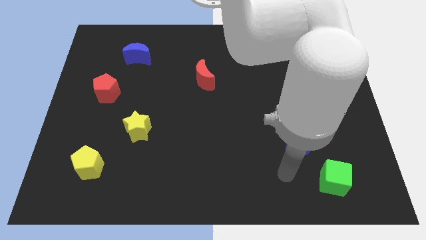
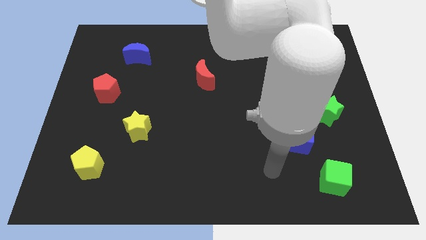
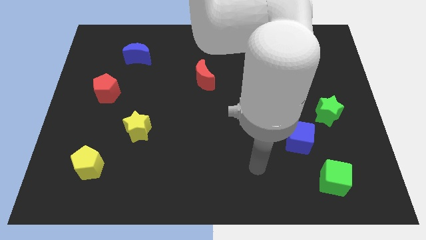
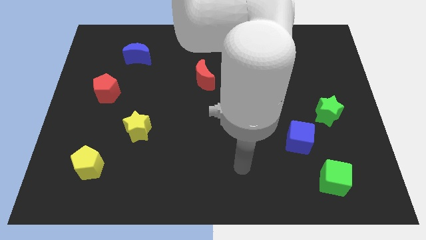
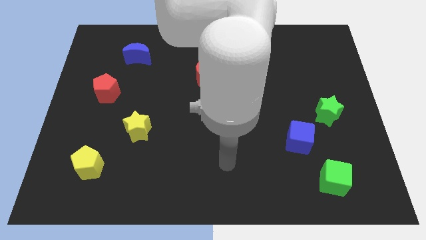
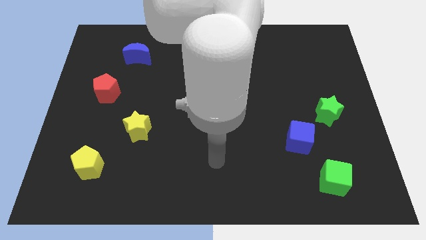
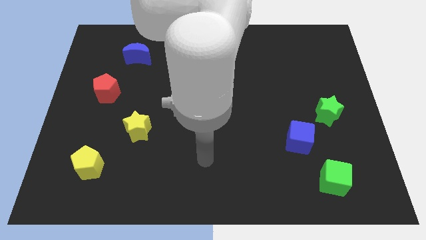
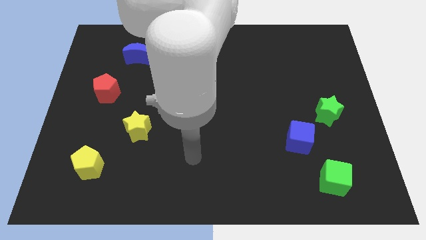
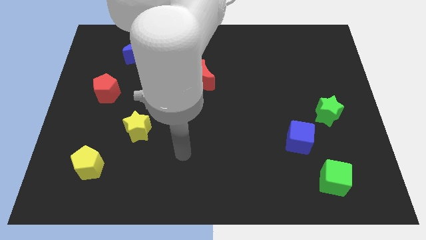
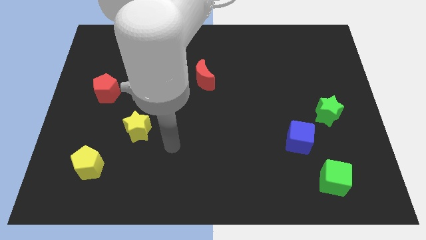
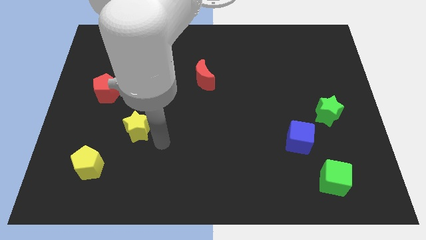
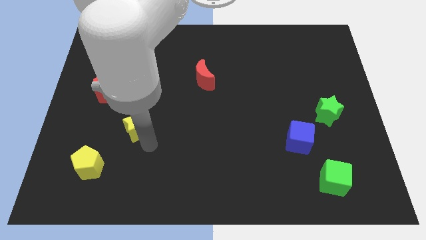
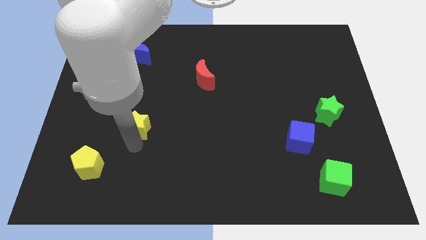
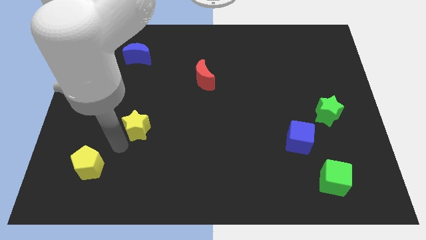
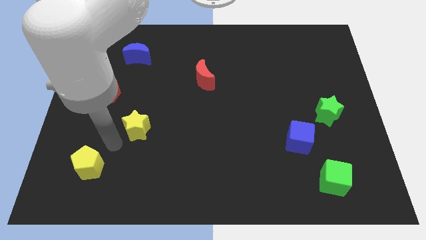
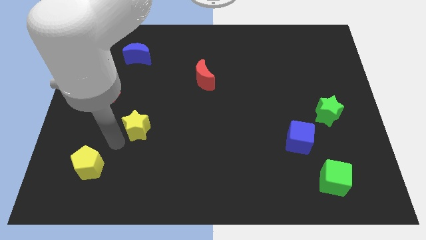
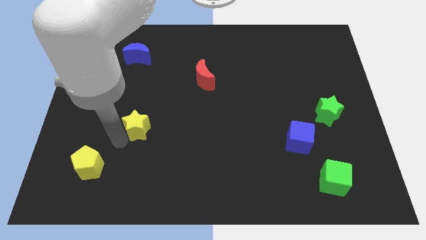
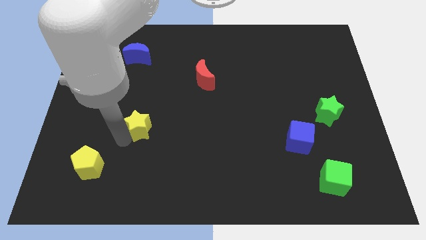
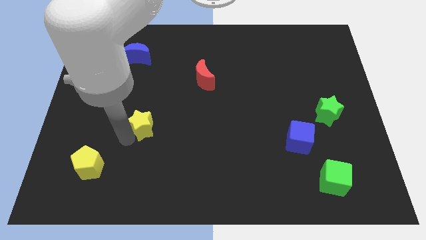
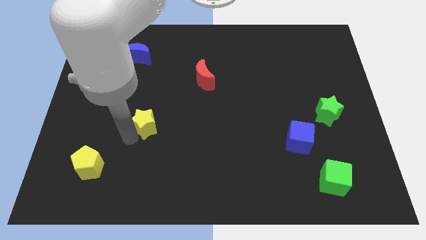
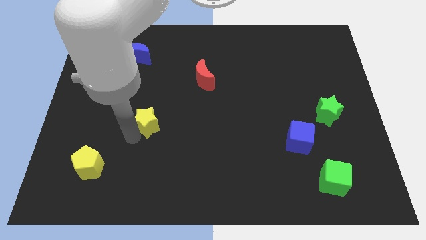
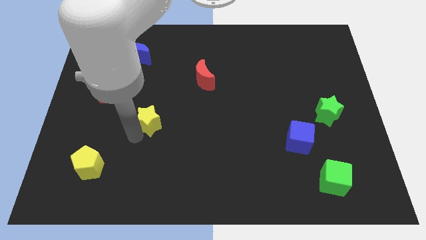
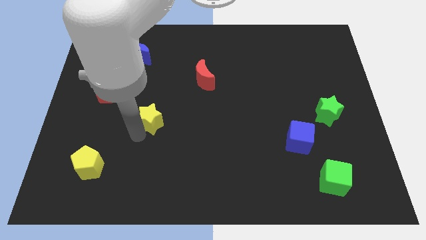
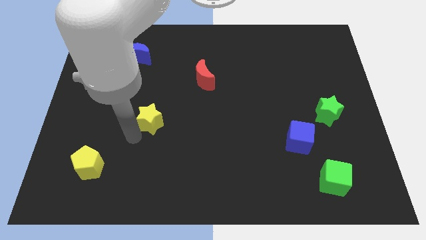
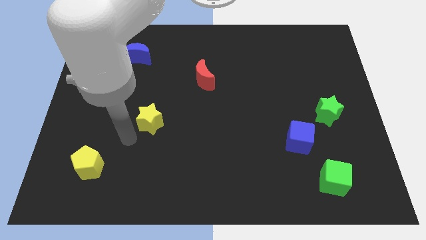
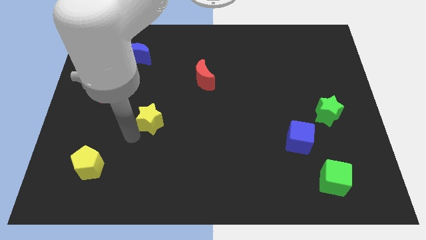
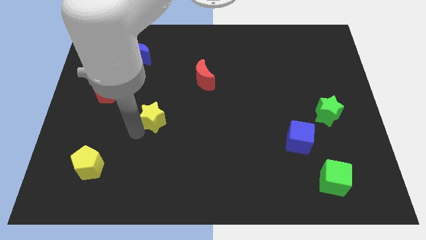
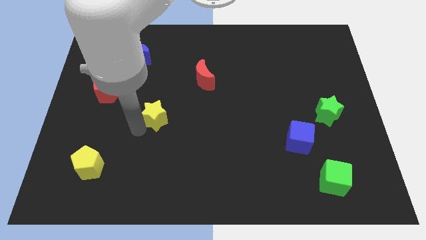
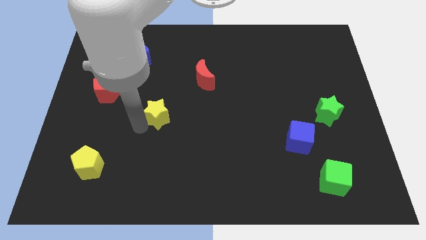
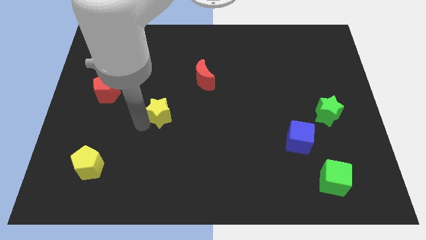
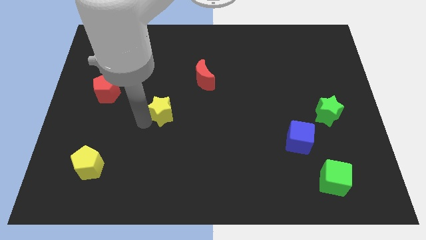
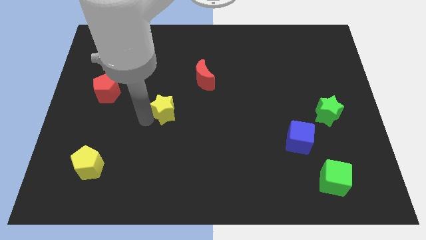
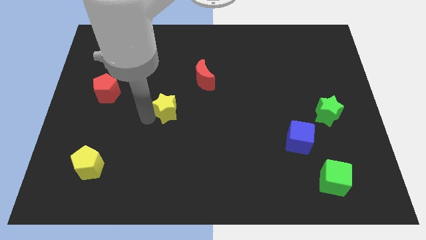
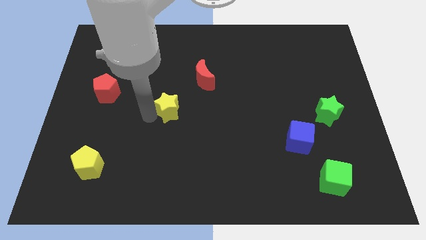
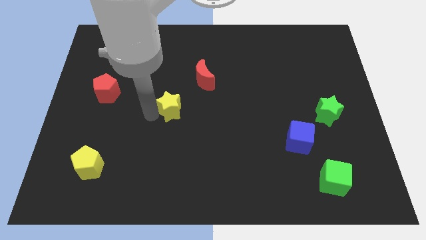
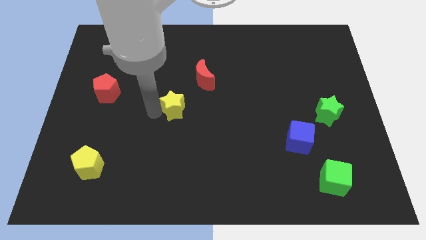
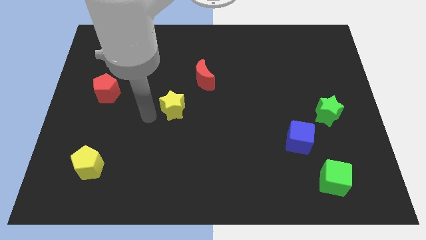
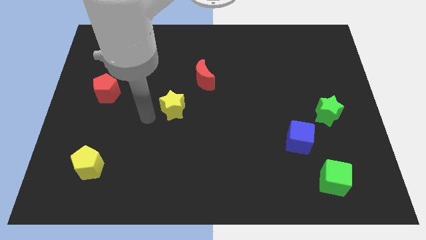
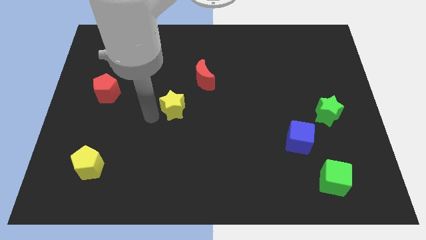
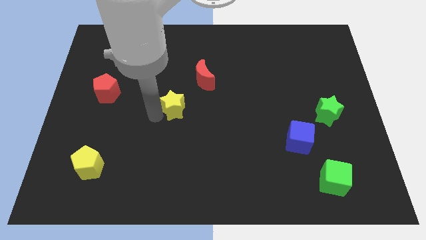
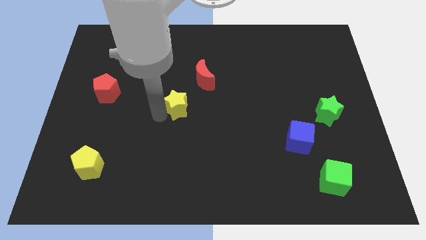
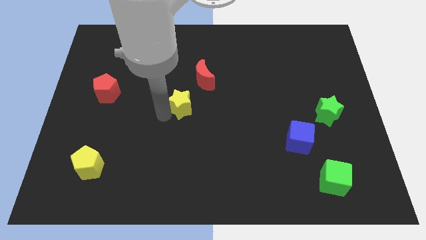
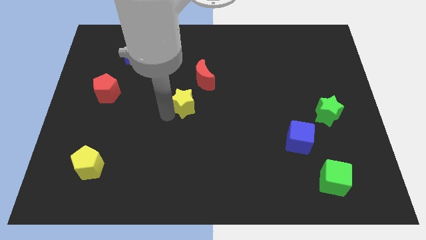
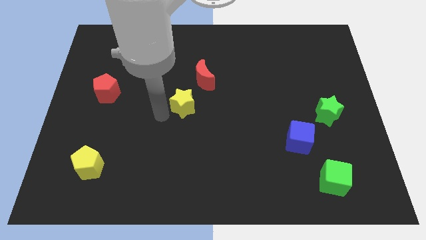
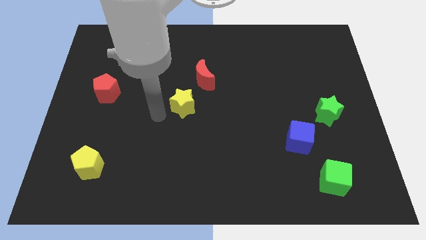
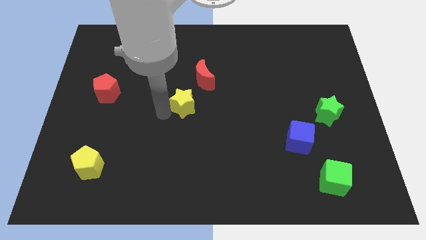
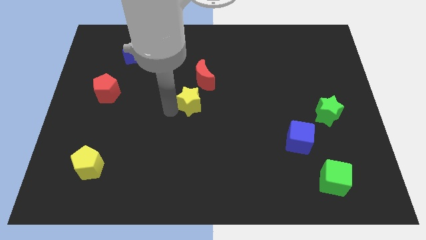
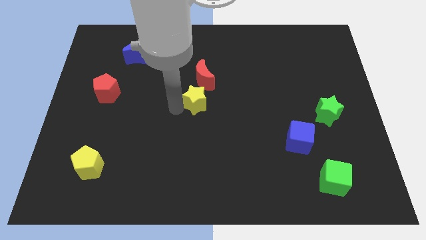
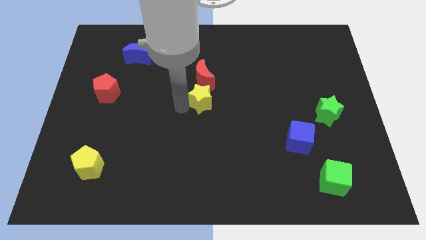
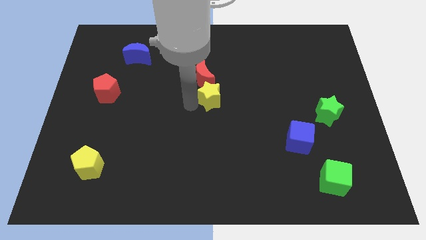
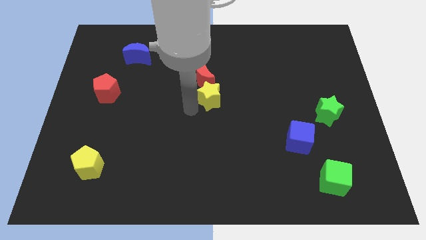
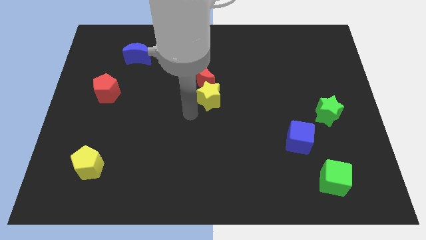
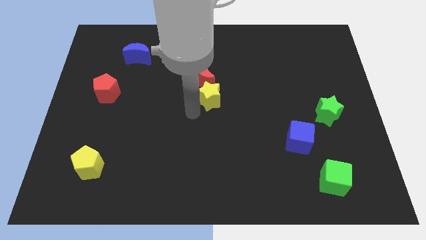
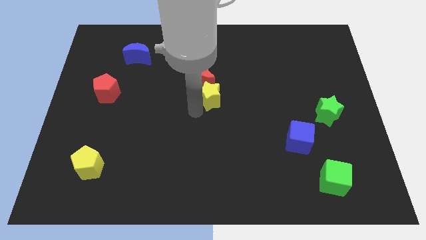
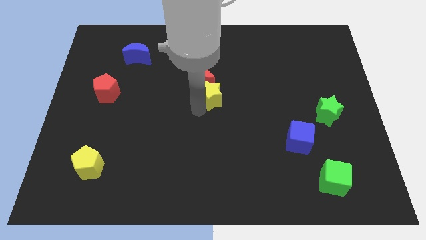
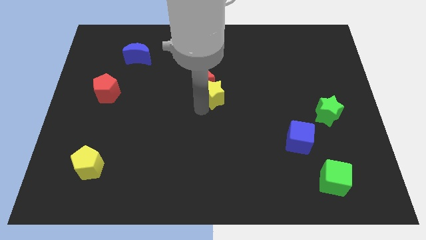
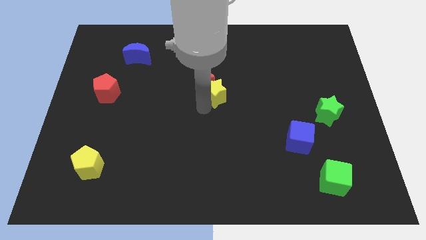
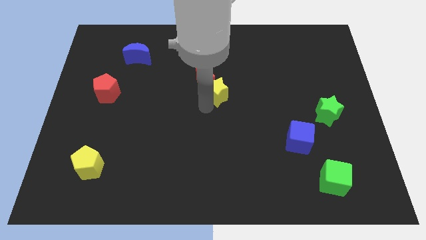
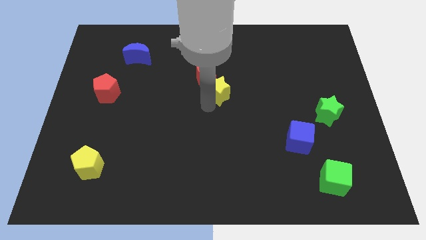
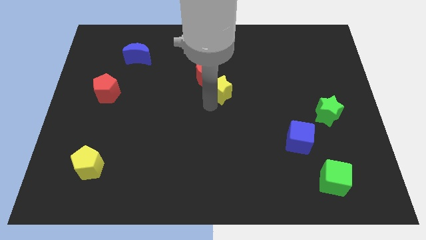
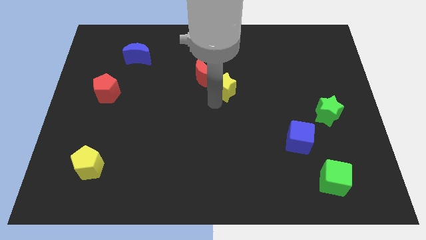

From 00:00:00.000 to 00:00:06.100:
slide the yellow star diagonally upwards and to the right

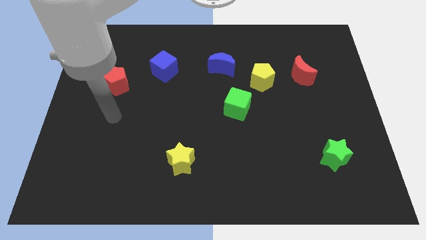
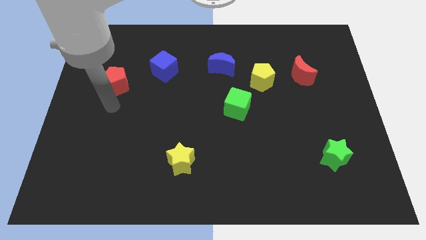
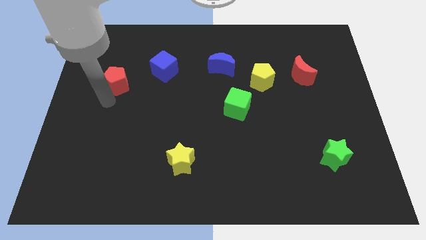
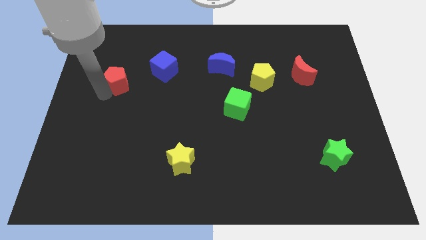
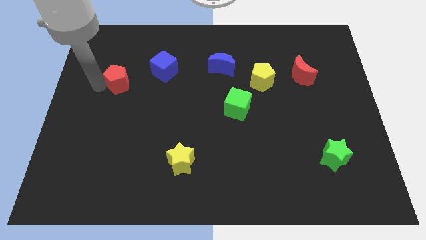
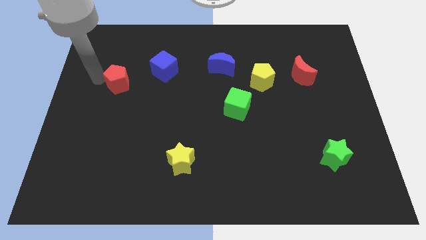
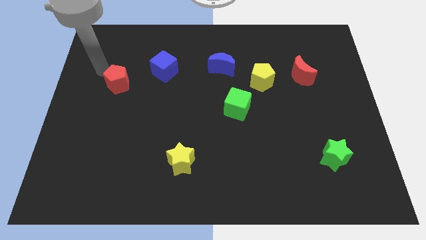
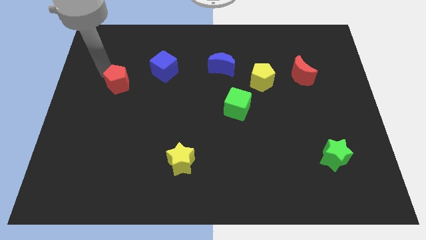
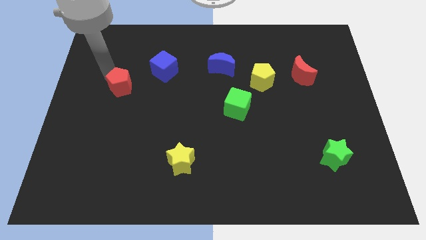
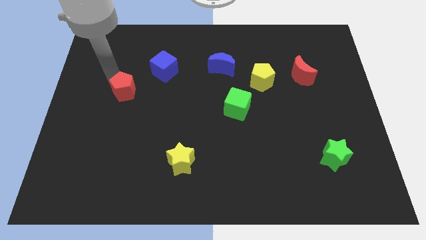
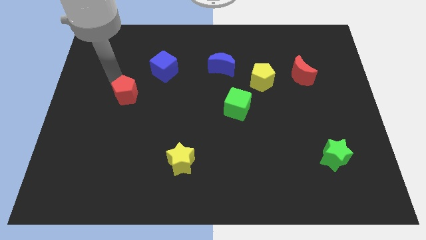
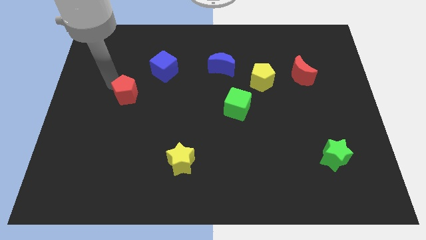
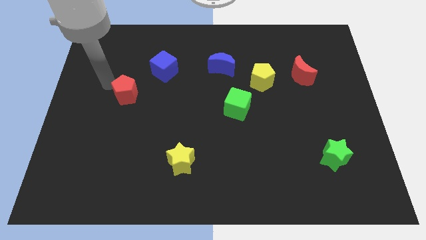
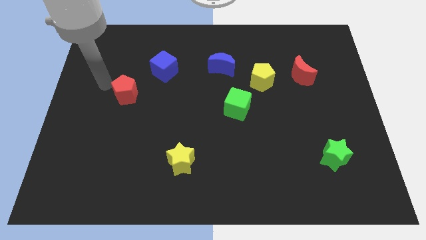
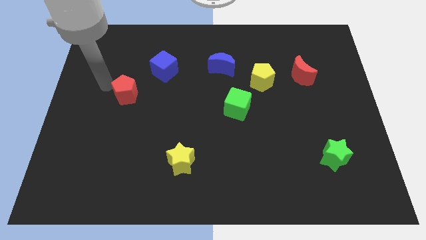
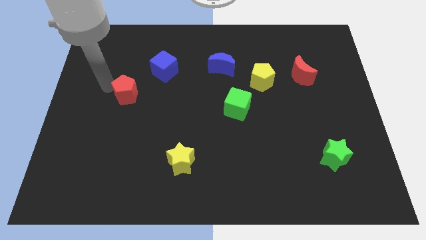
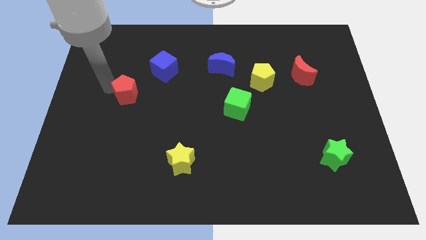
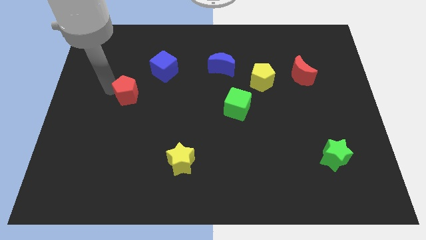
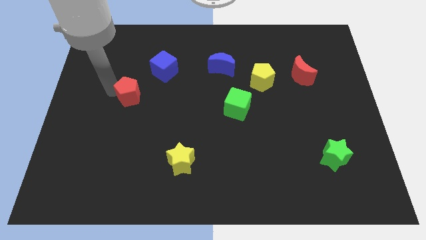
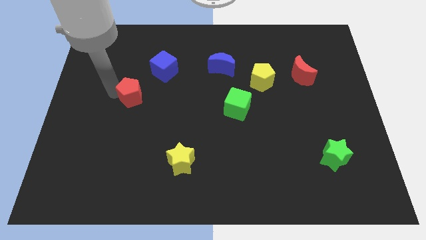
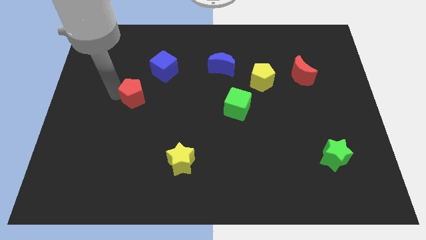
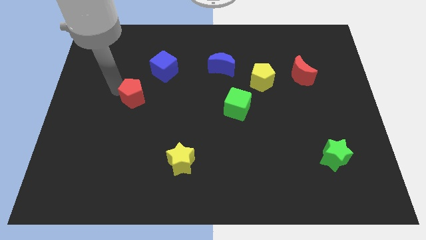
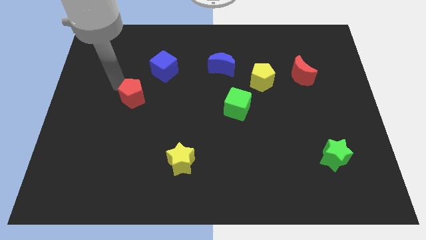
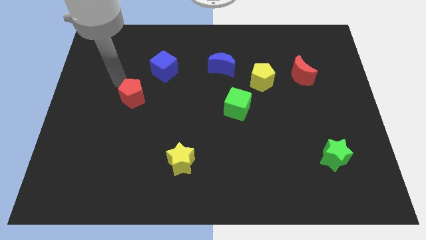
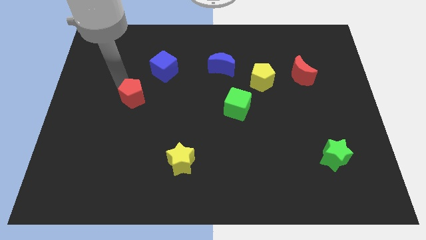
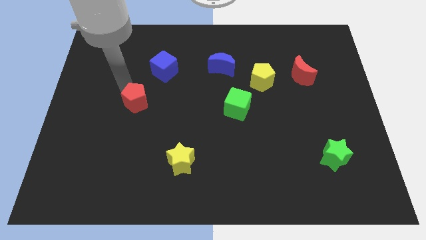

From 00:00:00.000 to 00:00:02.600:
move the red pentagon down and right slightly
